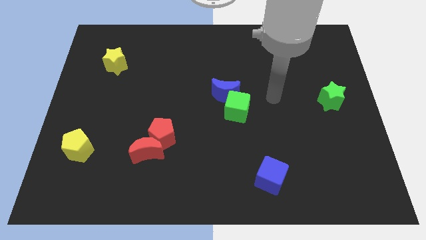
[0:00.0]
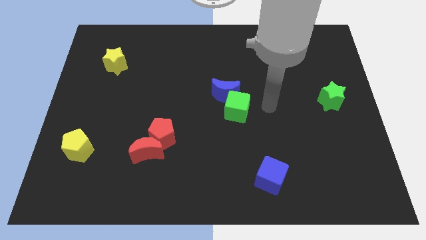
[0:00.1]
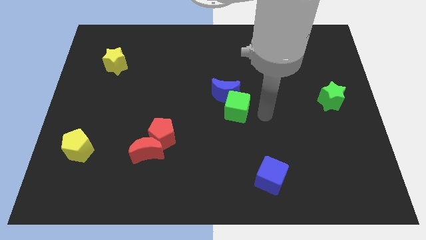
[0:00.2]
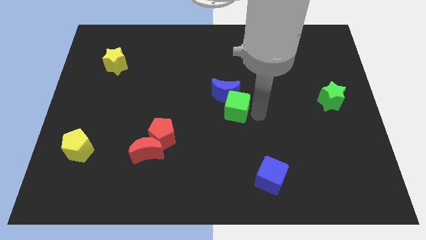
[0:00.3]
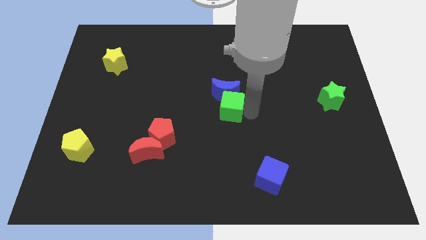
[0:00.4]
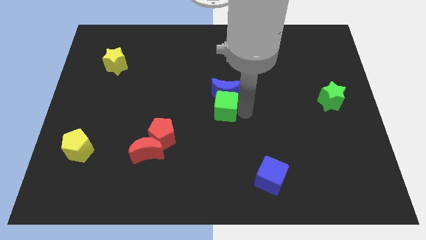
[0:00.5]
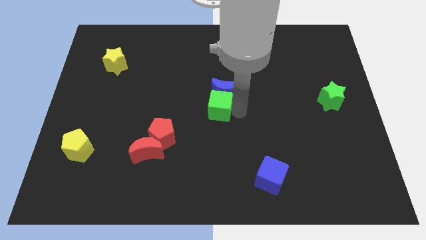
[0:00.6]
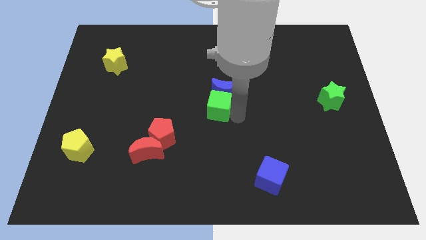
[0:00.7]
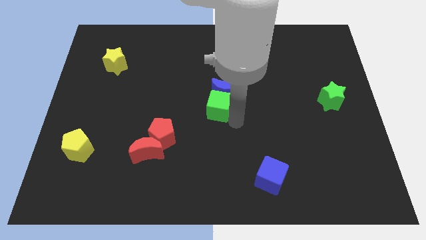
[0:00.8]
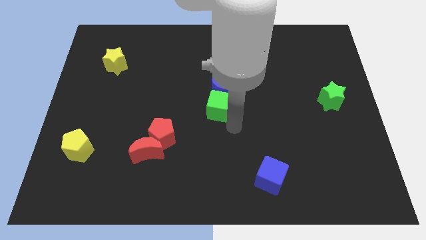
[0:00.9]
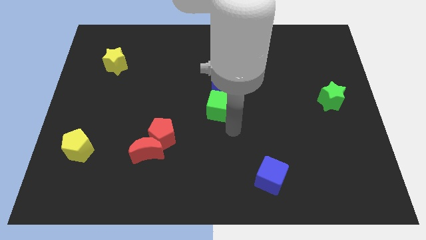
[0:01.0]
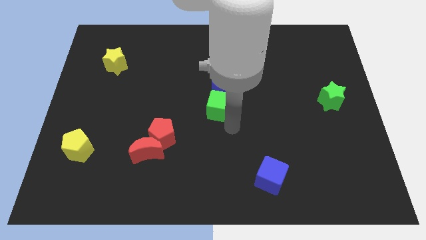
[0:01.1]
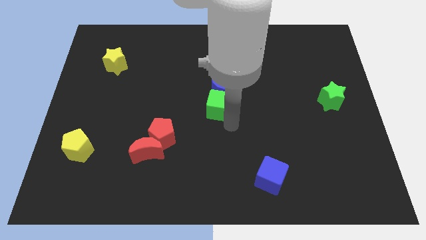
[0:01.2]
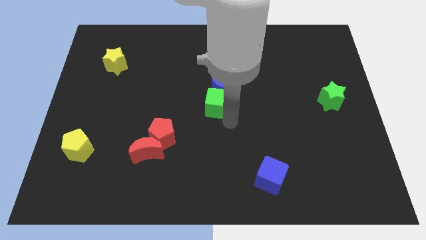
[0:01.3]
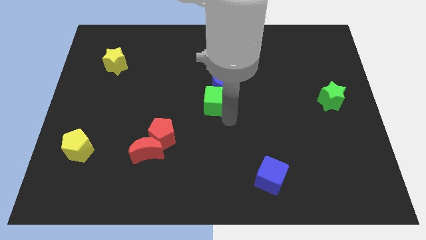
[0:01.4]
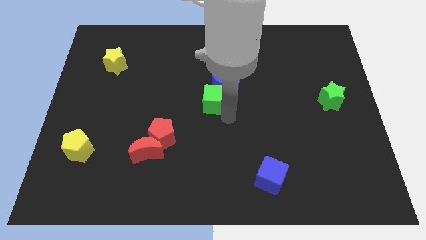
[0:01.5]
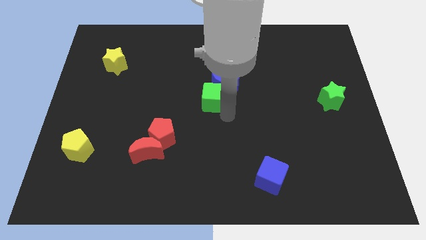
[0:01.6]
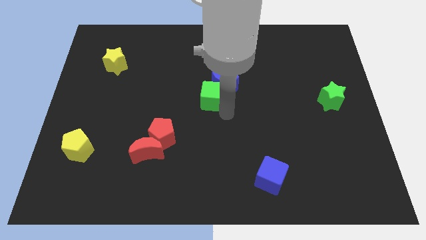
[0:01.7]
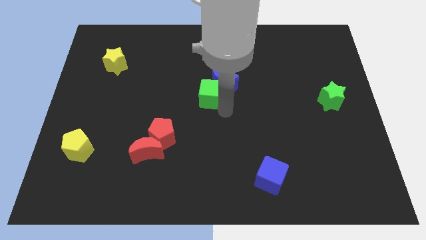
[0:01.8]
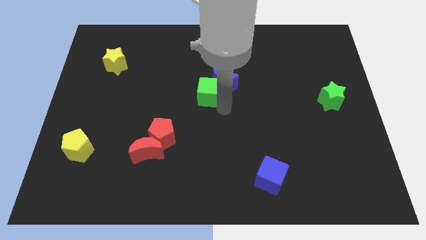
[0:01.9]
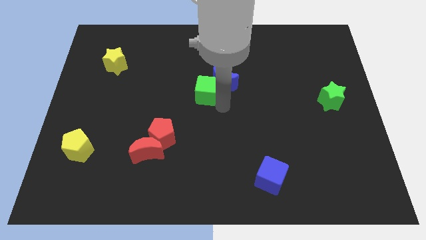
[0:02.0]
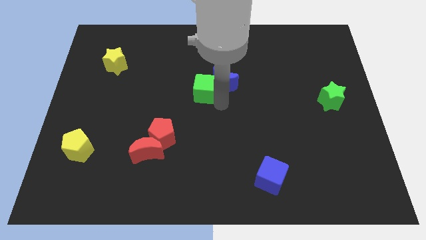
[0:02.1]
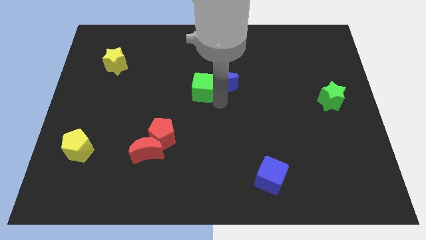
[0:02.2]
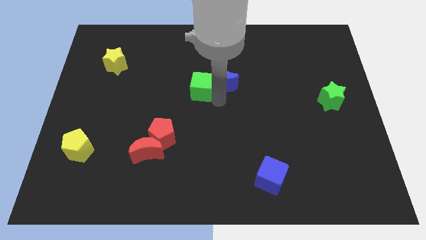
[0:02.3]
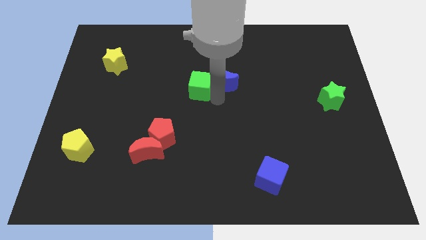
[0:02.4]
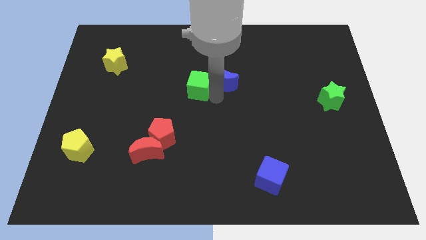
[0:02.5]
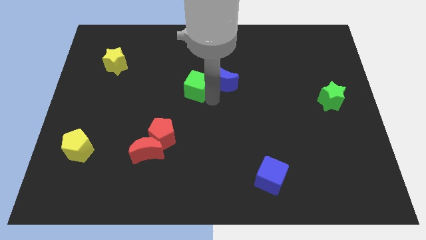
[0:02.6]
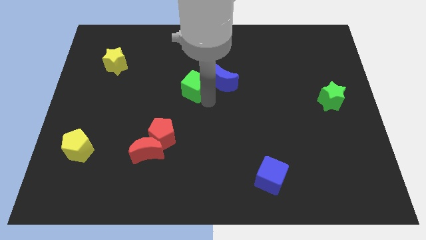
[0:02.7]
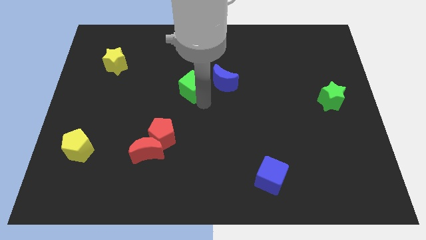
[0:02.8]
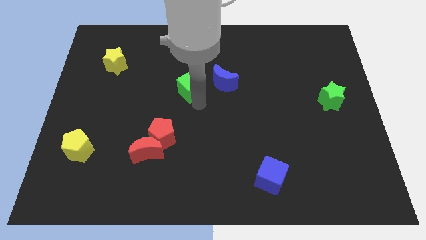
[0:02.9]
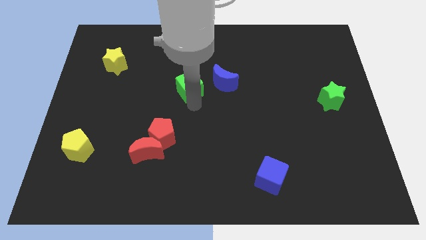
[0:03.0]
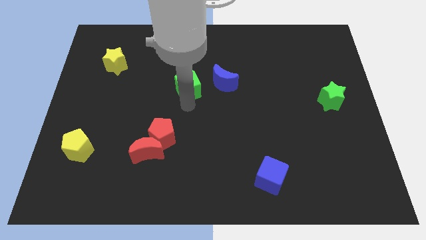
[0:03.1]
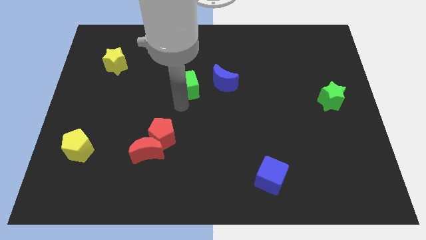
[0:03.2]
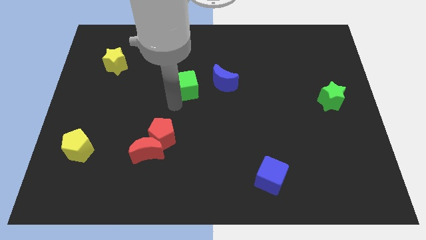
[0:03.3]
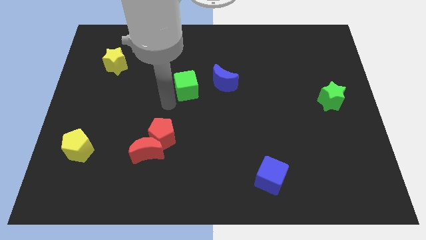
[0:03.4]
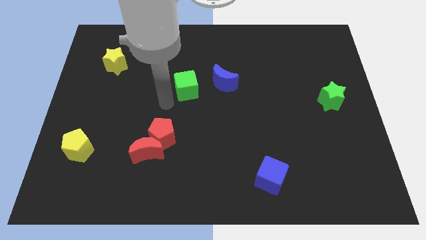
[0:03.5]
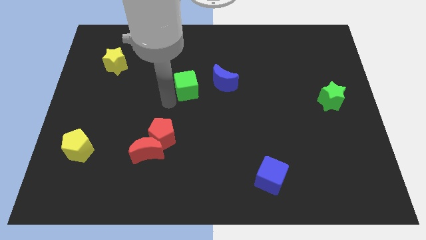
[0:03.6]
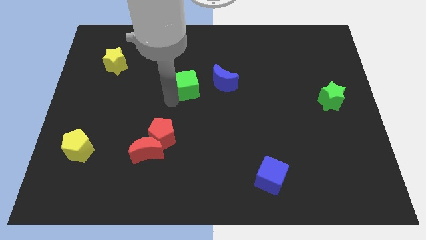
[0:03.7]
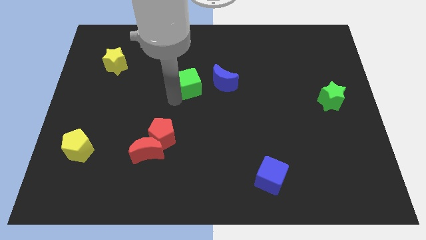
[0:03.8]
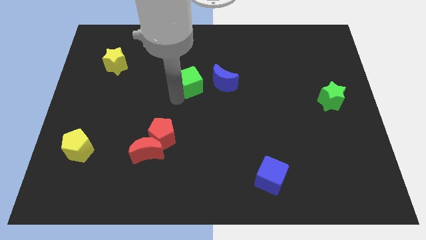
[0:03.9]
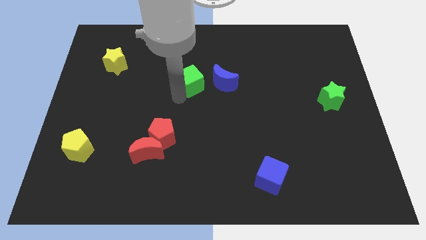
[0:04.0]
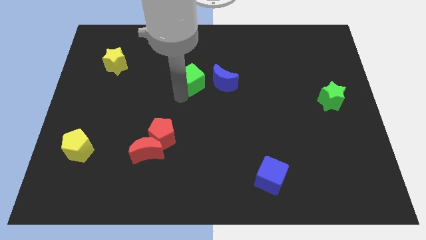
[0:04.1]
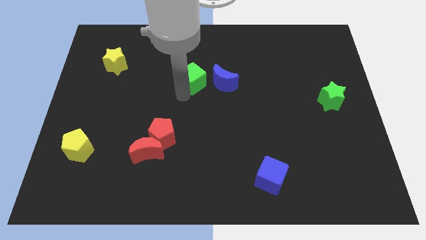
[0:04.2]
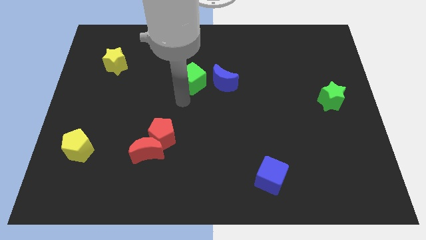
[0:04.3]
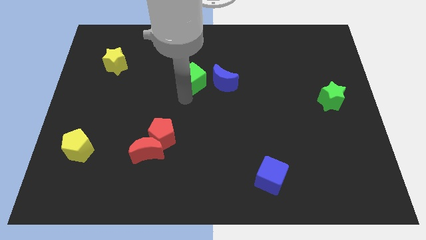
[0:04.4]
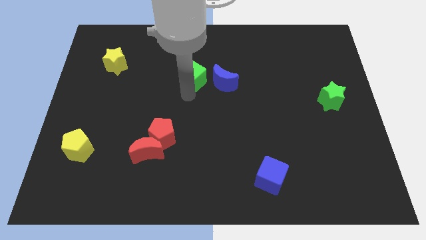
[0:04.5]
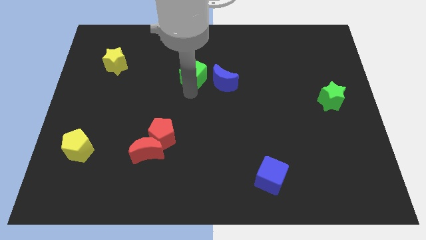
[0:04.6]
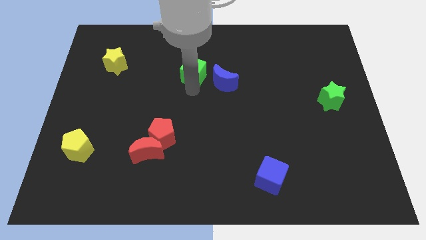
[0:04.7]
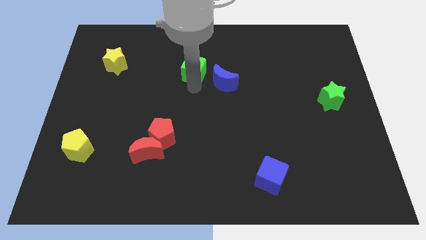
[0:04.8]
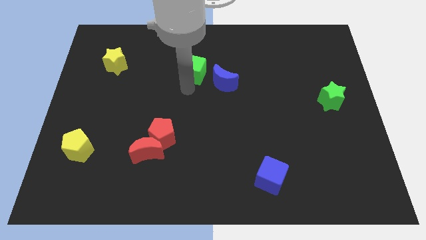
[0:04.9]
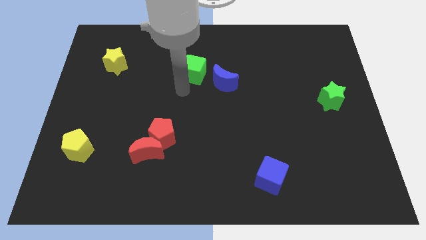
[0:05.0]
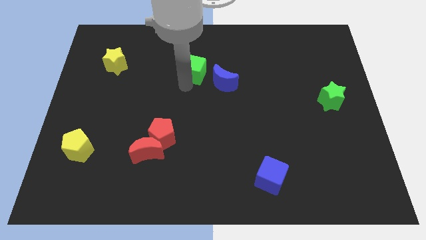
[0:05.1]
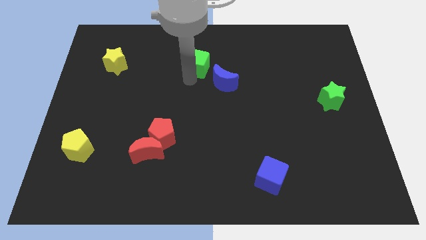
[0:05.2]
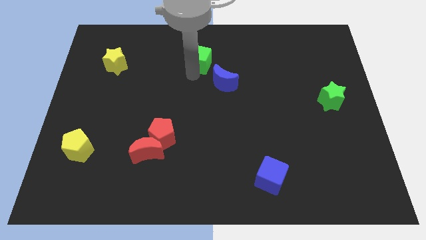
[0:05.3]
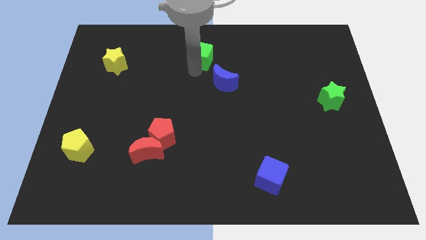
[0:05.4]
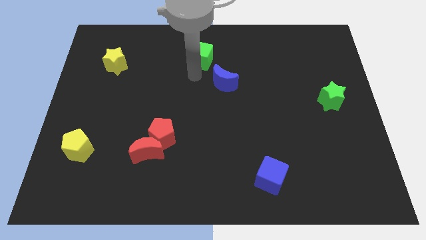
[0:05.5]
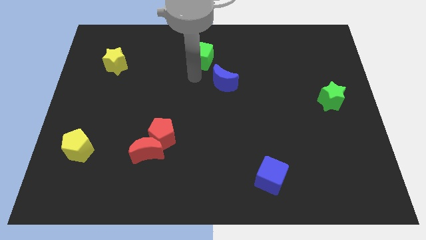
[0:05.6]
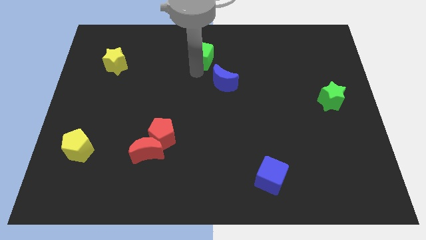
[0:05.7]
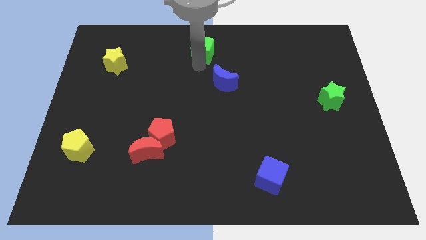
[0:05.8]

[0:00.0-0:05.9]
put the green cube to the top side

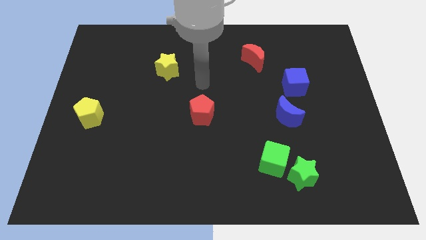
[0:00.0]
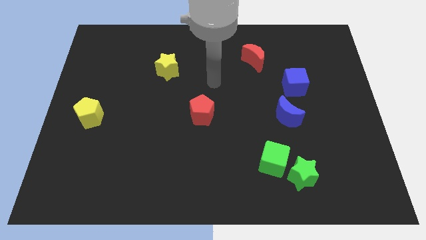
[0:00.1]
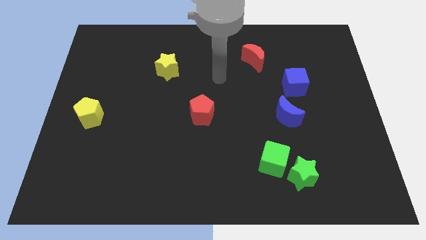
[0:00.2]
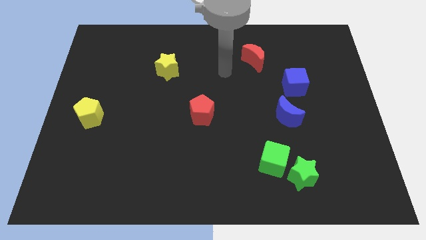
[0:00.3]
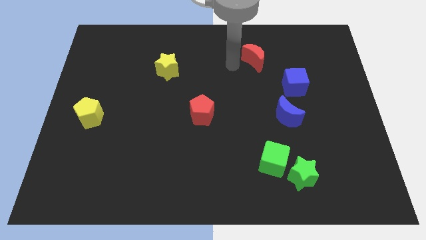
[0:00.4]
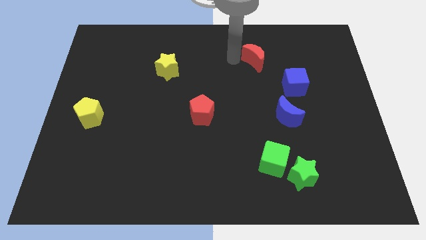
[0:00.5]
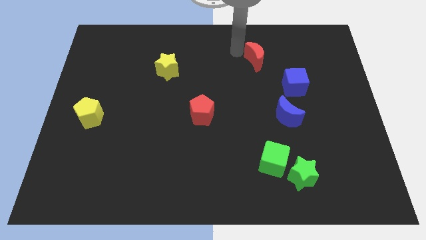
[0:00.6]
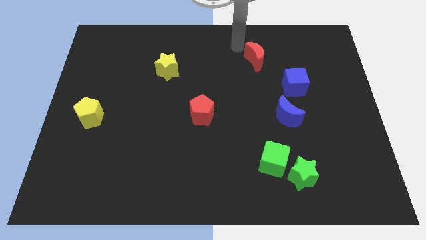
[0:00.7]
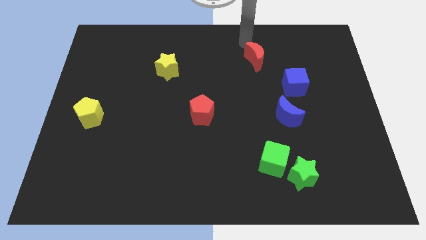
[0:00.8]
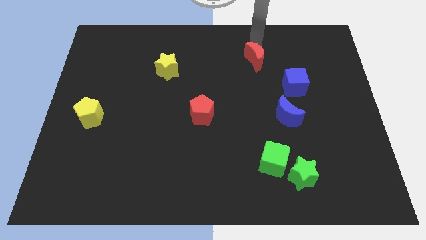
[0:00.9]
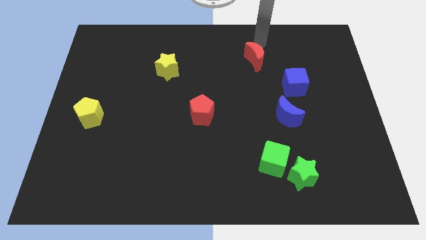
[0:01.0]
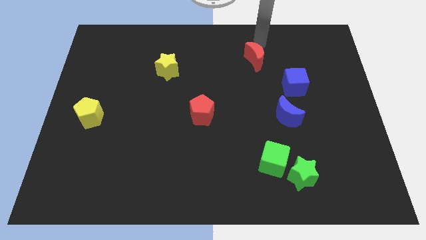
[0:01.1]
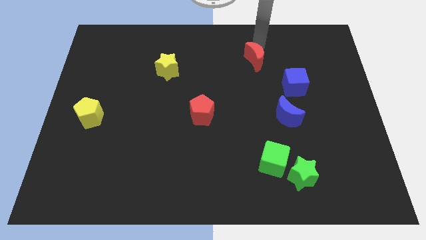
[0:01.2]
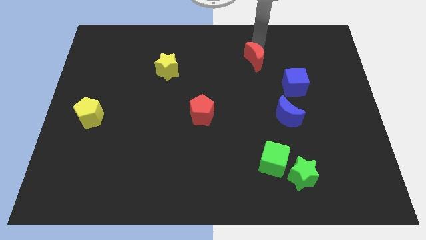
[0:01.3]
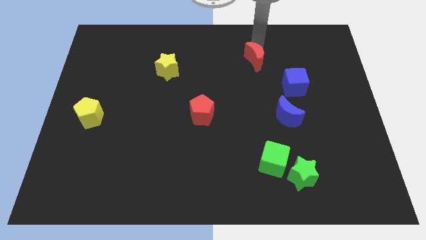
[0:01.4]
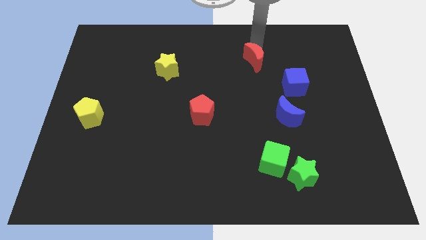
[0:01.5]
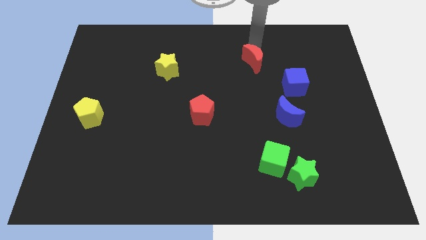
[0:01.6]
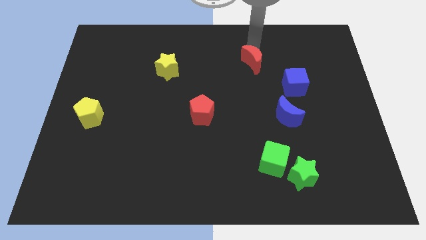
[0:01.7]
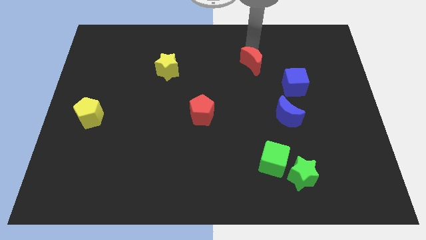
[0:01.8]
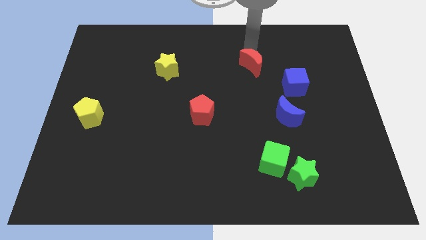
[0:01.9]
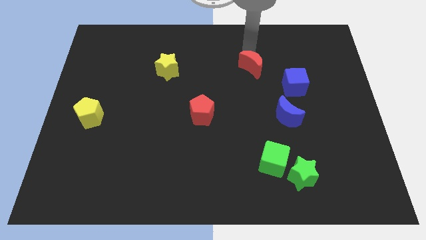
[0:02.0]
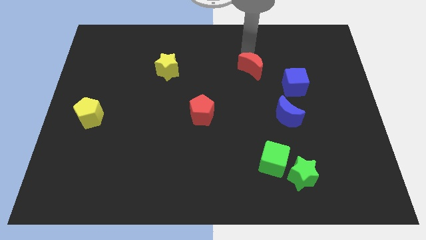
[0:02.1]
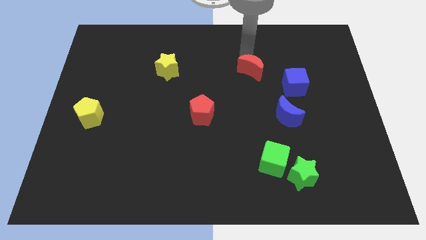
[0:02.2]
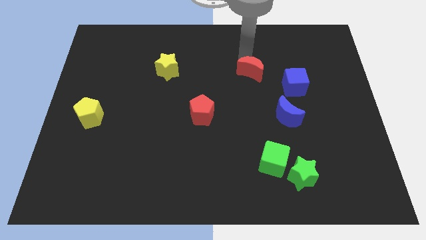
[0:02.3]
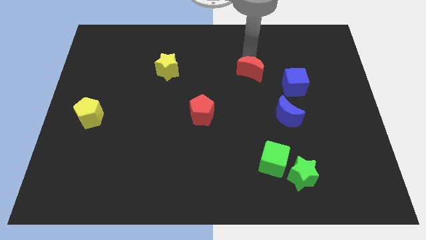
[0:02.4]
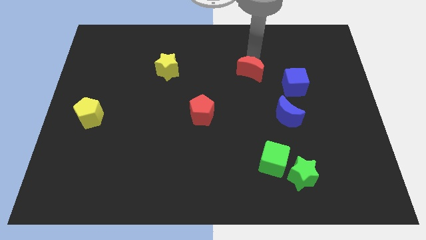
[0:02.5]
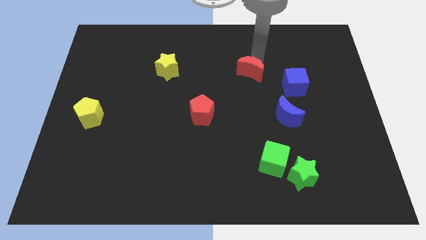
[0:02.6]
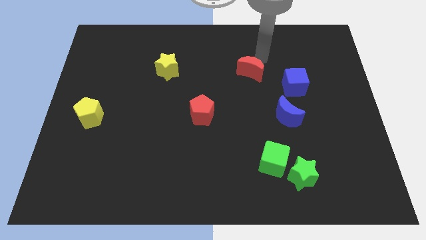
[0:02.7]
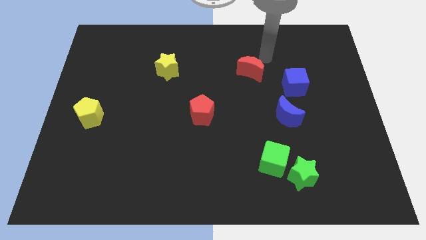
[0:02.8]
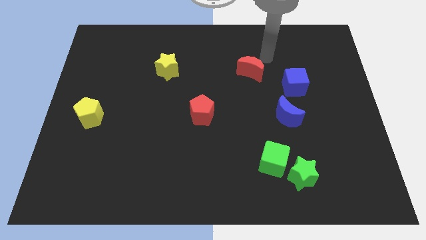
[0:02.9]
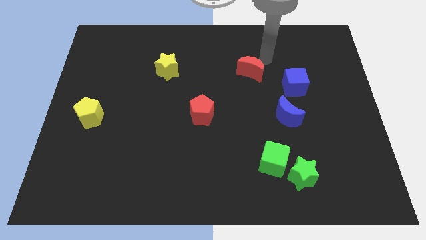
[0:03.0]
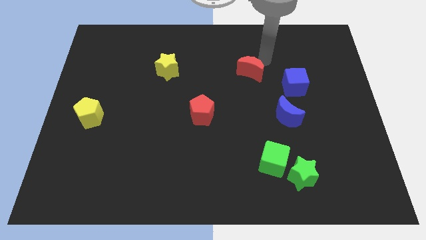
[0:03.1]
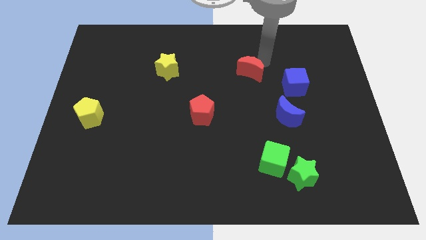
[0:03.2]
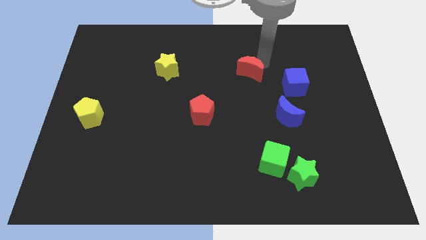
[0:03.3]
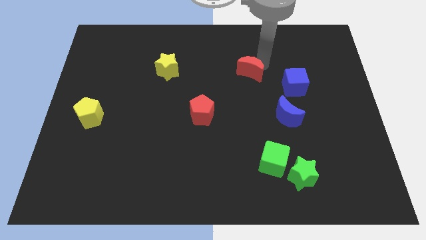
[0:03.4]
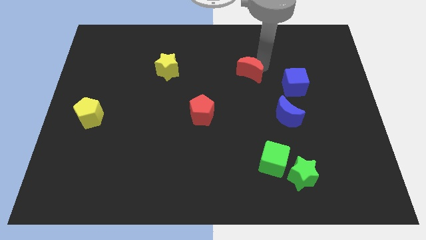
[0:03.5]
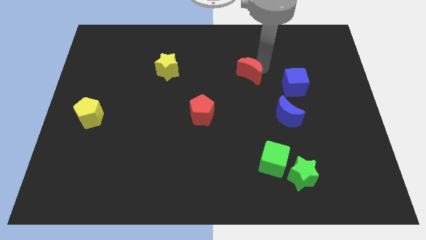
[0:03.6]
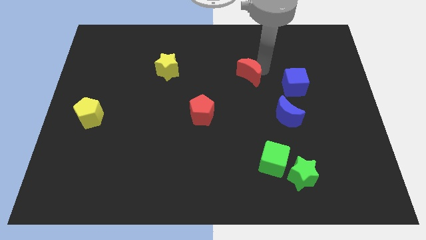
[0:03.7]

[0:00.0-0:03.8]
put the red moon to the center
